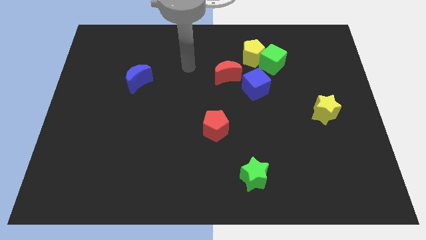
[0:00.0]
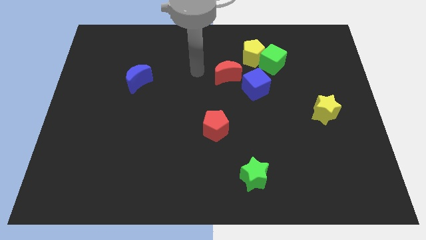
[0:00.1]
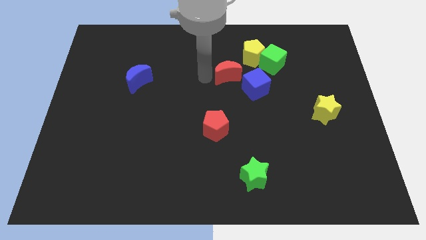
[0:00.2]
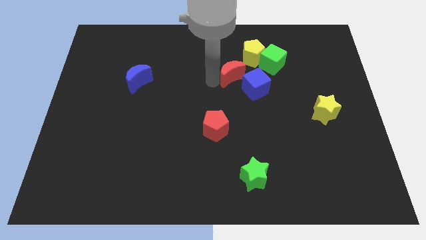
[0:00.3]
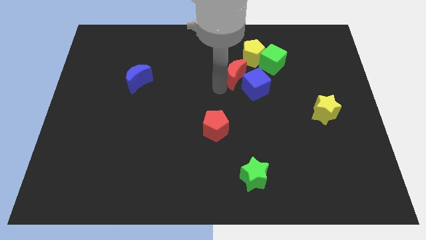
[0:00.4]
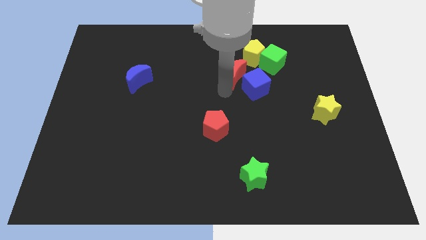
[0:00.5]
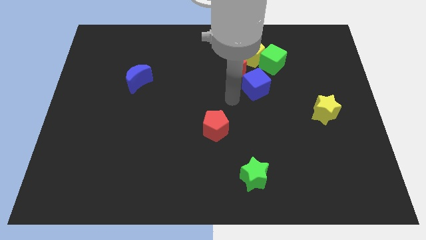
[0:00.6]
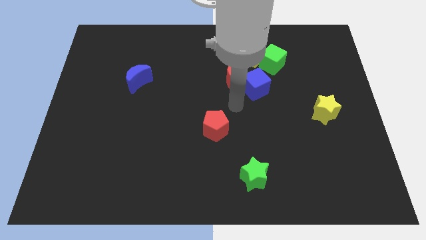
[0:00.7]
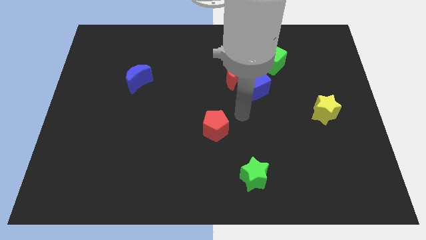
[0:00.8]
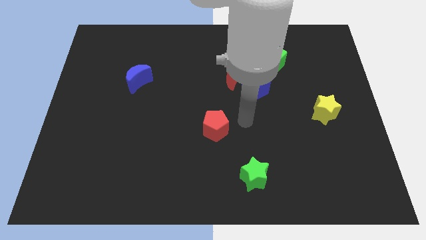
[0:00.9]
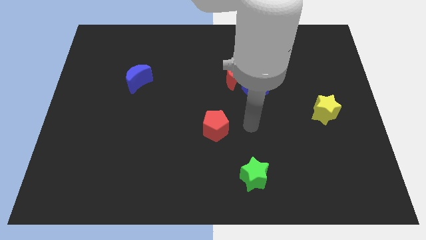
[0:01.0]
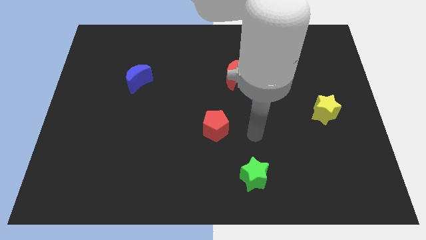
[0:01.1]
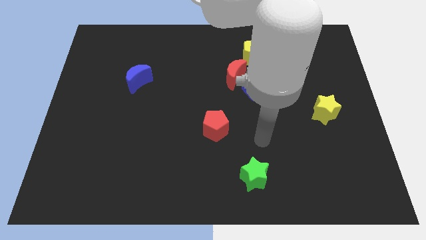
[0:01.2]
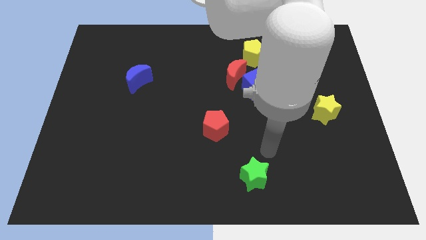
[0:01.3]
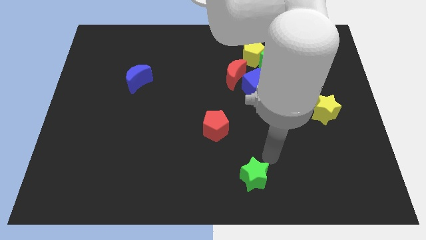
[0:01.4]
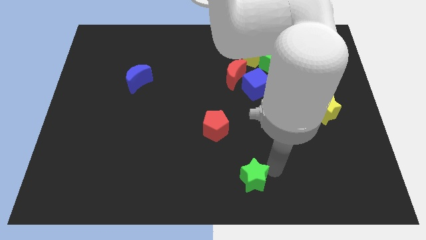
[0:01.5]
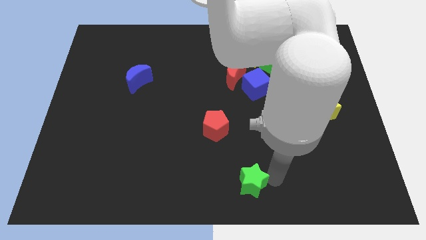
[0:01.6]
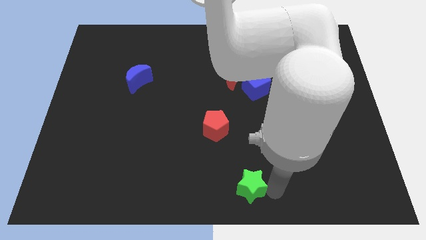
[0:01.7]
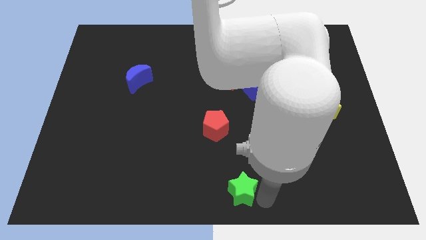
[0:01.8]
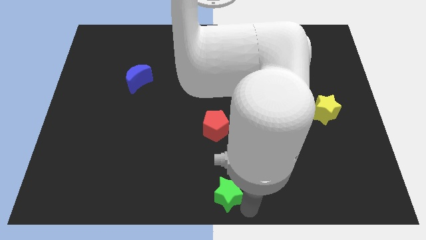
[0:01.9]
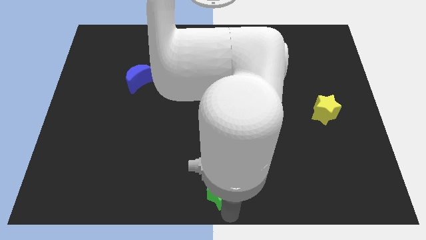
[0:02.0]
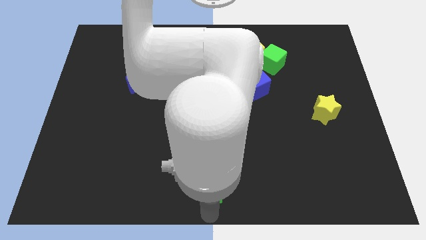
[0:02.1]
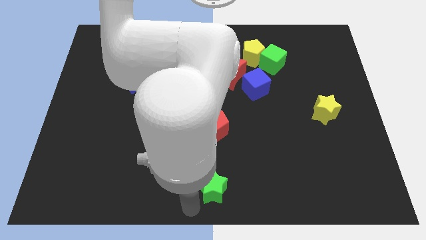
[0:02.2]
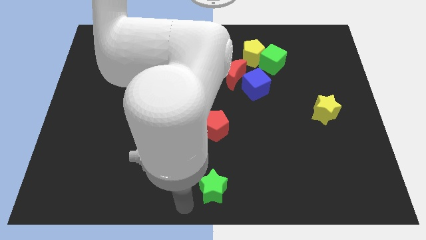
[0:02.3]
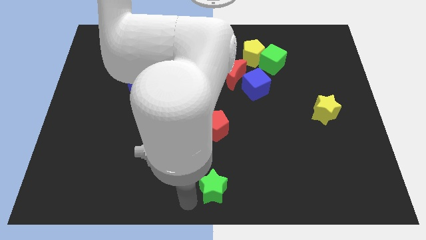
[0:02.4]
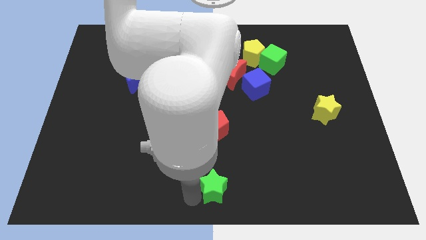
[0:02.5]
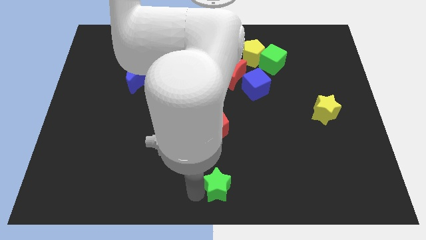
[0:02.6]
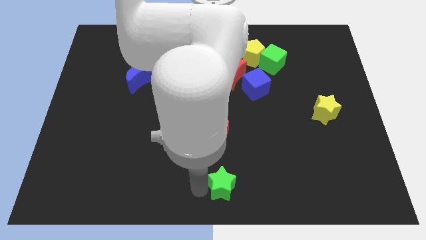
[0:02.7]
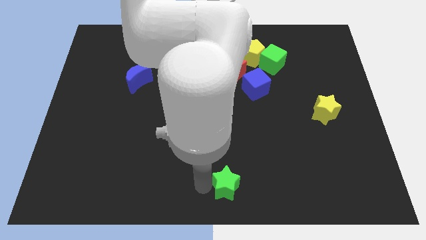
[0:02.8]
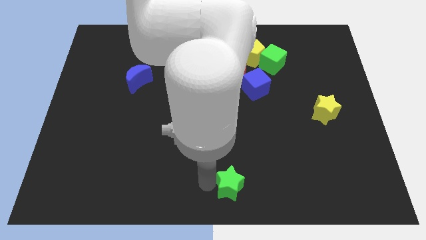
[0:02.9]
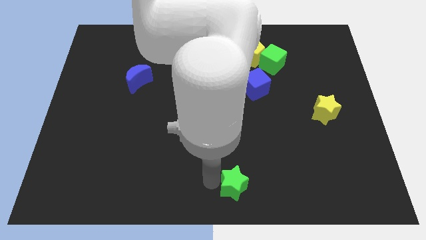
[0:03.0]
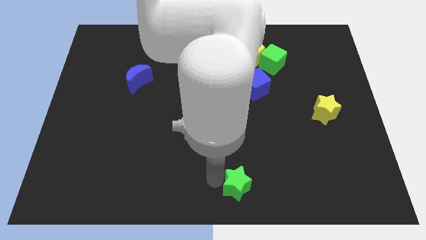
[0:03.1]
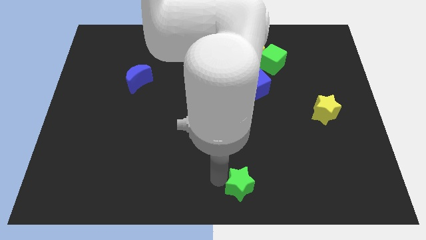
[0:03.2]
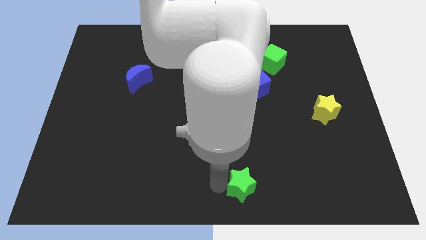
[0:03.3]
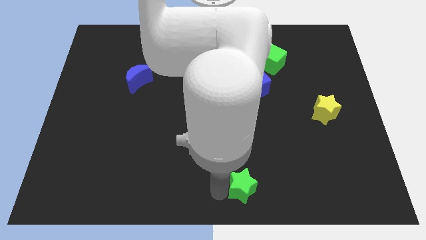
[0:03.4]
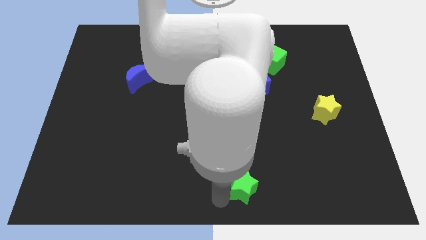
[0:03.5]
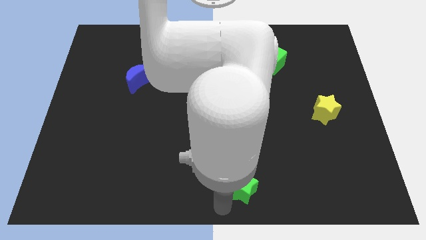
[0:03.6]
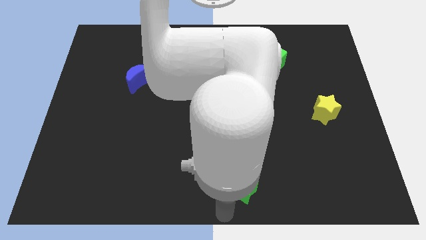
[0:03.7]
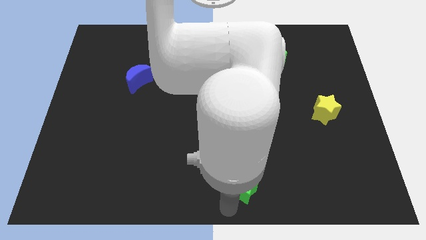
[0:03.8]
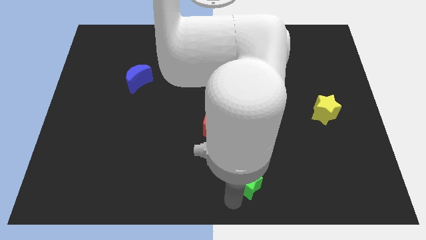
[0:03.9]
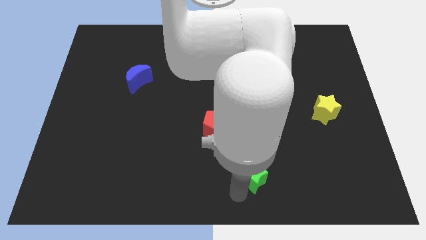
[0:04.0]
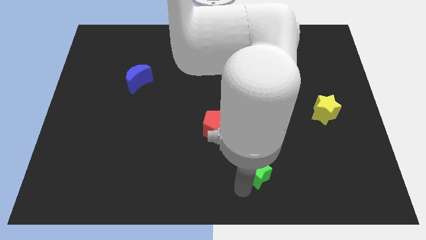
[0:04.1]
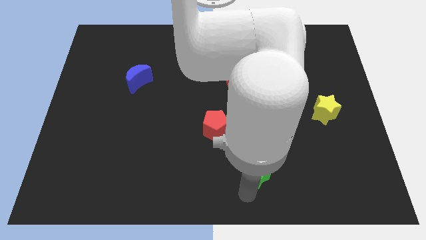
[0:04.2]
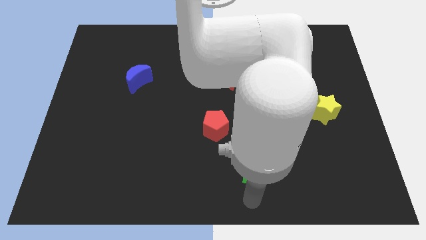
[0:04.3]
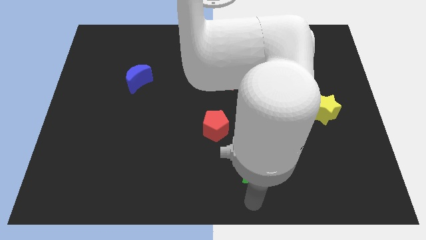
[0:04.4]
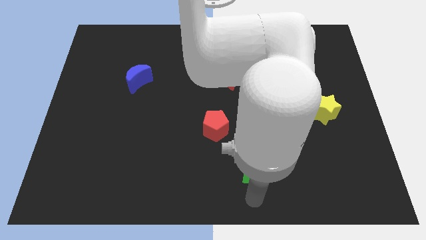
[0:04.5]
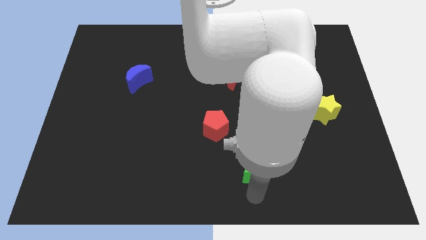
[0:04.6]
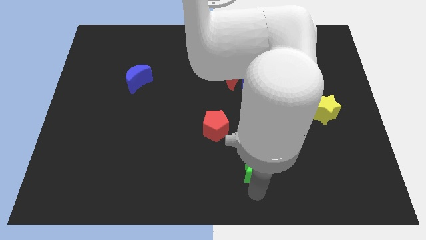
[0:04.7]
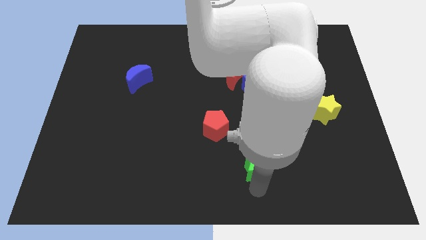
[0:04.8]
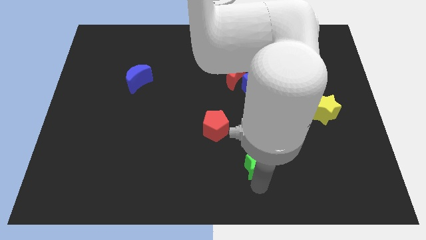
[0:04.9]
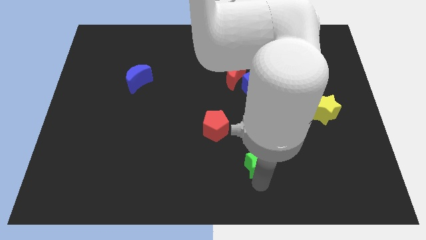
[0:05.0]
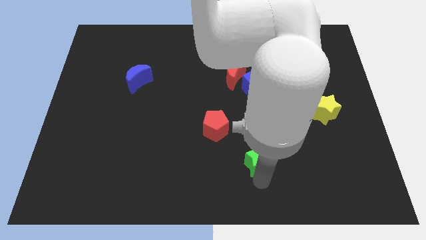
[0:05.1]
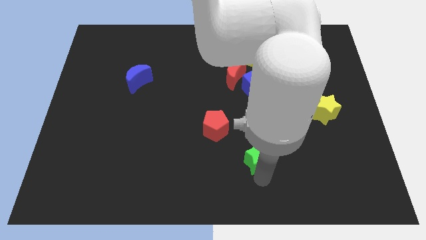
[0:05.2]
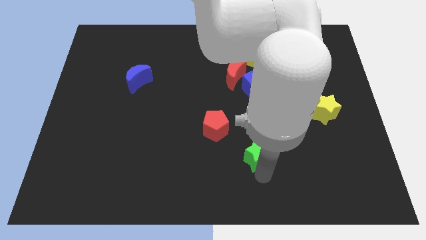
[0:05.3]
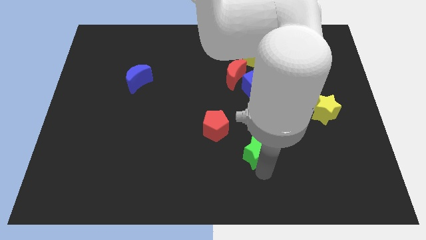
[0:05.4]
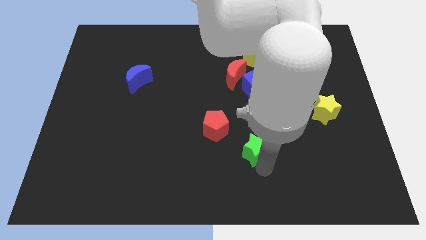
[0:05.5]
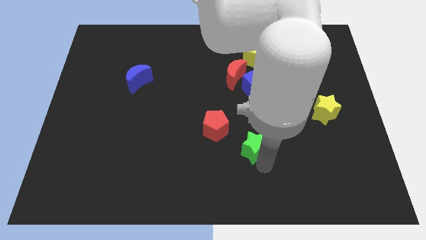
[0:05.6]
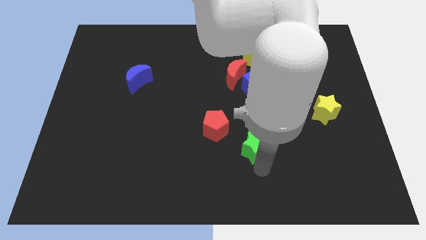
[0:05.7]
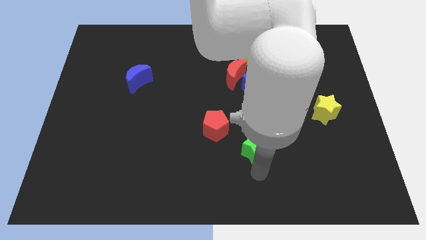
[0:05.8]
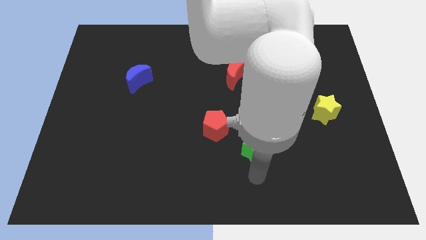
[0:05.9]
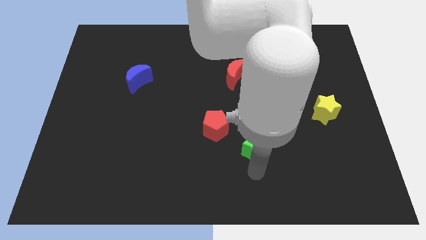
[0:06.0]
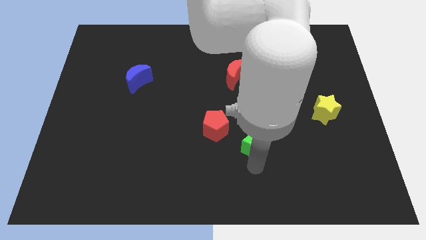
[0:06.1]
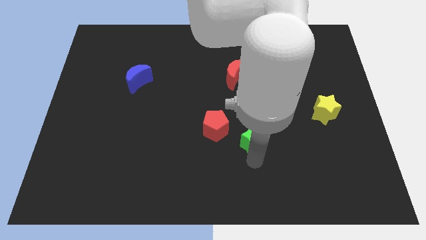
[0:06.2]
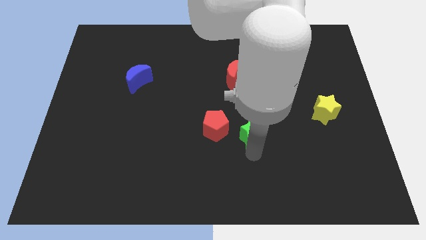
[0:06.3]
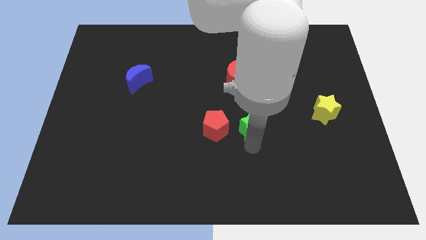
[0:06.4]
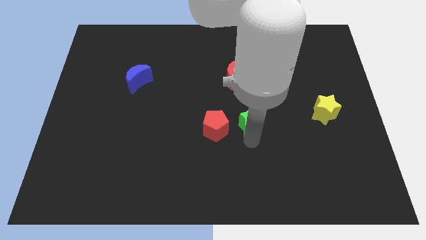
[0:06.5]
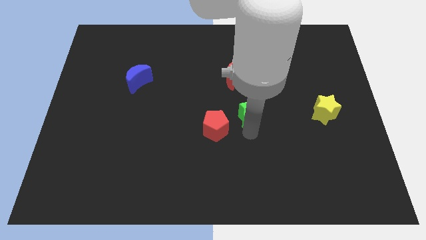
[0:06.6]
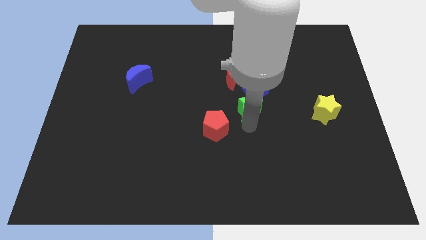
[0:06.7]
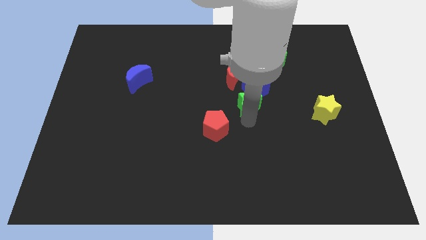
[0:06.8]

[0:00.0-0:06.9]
slide the green star next to the blue cube

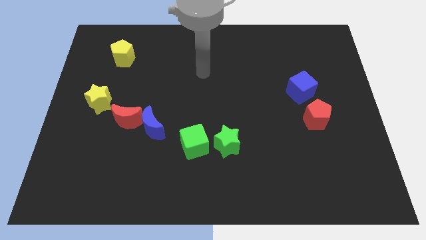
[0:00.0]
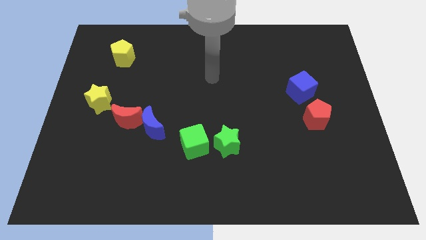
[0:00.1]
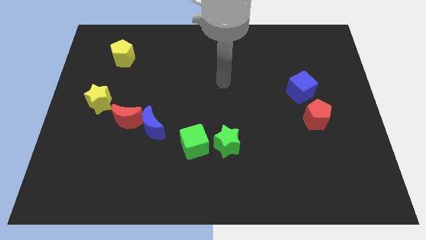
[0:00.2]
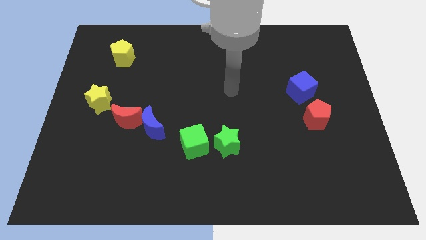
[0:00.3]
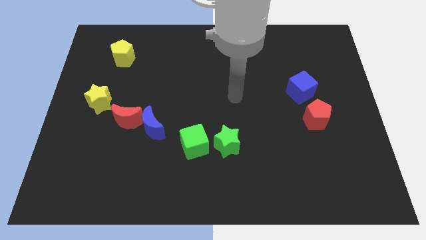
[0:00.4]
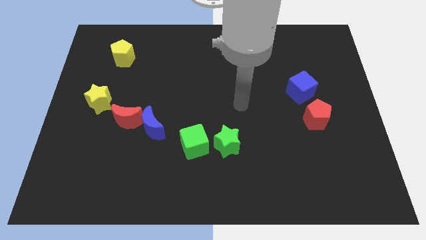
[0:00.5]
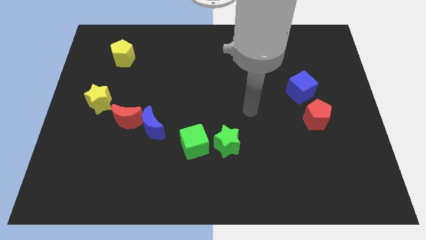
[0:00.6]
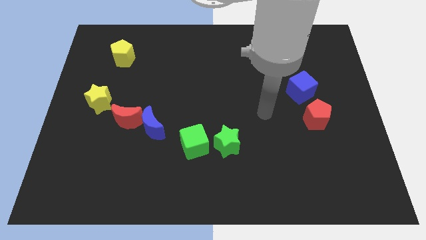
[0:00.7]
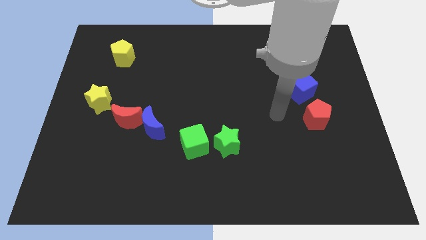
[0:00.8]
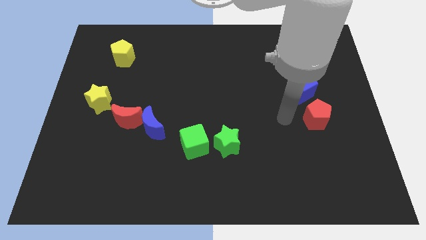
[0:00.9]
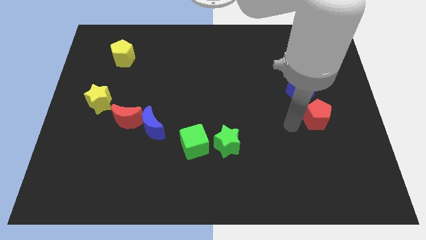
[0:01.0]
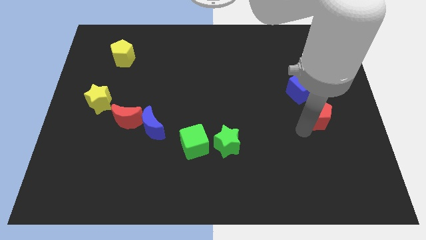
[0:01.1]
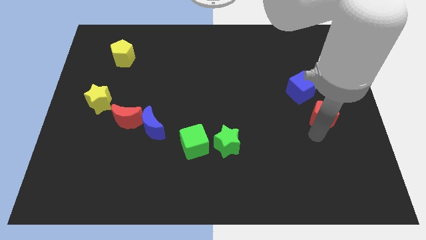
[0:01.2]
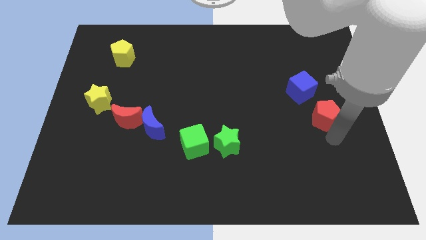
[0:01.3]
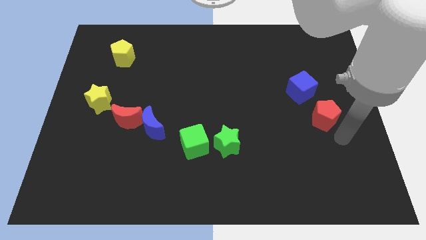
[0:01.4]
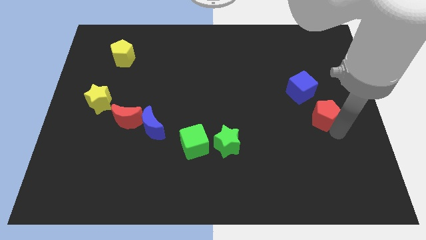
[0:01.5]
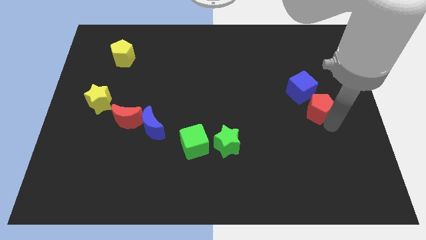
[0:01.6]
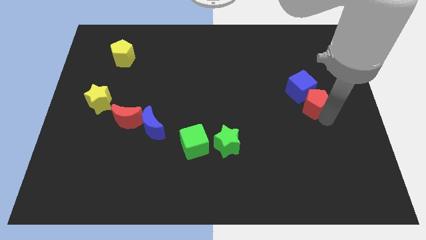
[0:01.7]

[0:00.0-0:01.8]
push the red pentagon close to the blue cube
